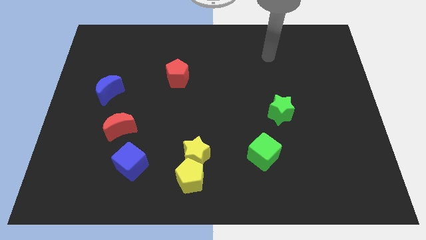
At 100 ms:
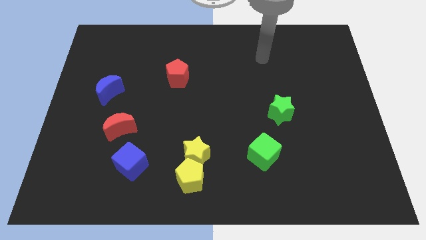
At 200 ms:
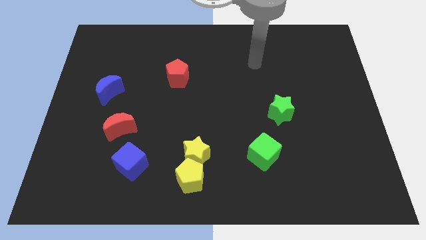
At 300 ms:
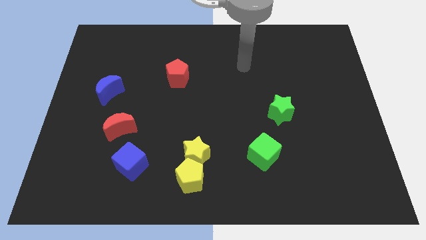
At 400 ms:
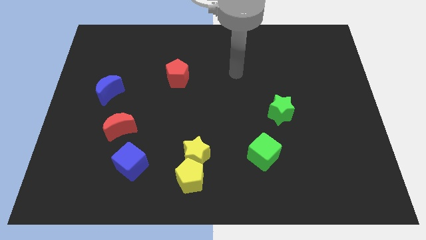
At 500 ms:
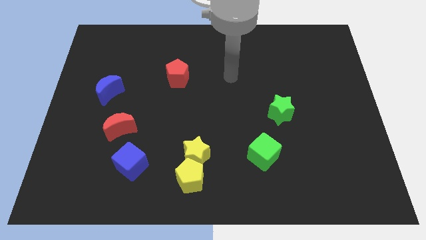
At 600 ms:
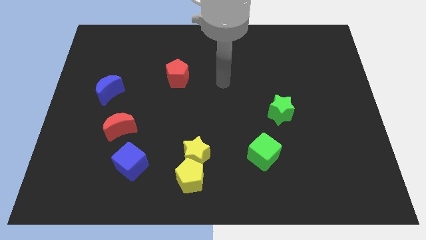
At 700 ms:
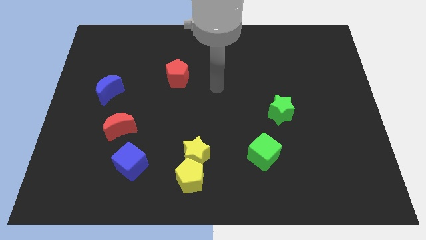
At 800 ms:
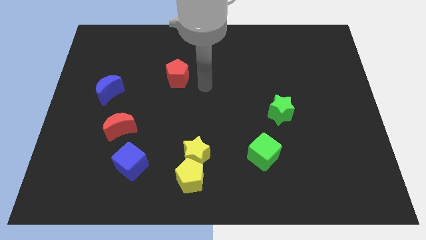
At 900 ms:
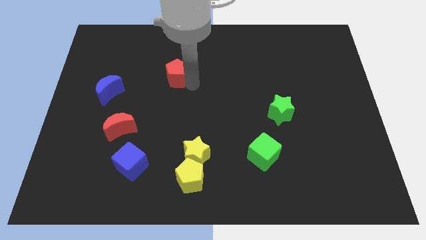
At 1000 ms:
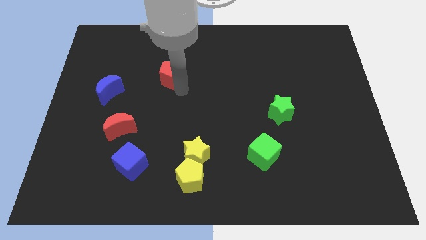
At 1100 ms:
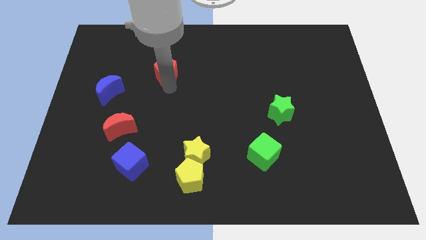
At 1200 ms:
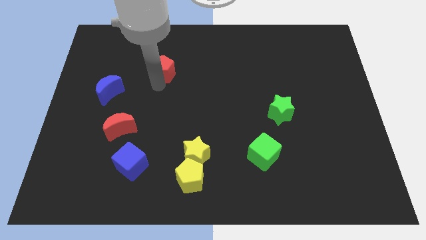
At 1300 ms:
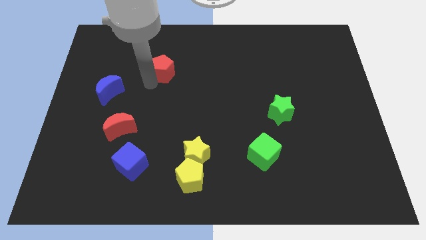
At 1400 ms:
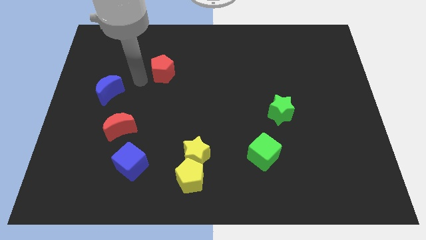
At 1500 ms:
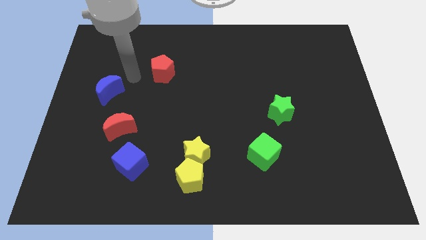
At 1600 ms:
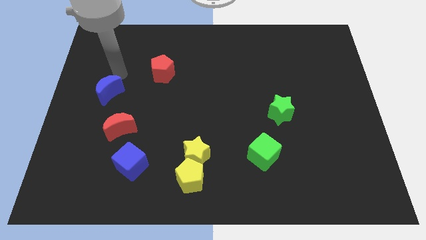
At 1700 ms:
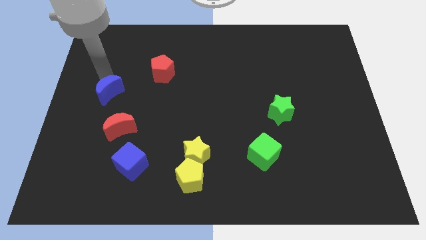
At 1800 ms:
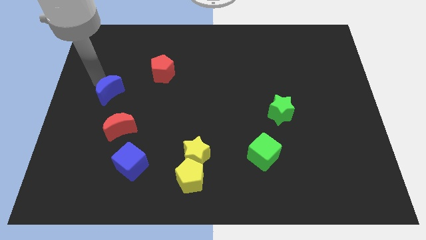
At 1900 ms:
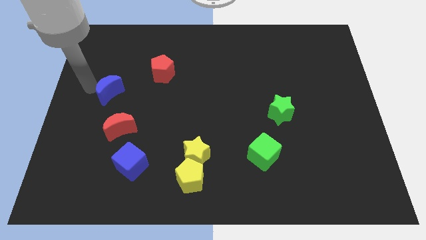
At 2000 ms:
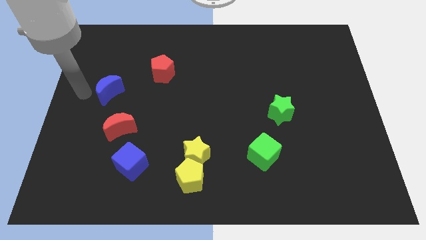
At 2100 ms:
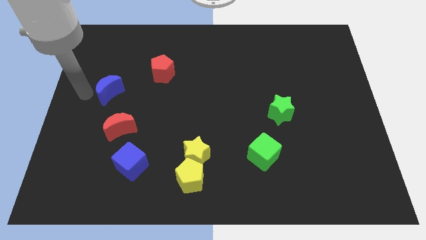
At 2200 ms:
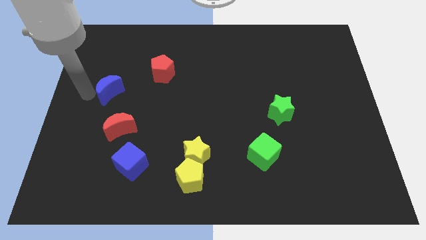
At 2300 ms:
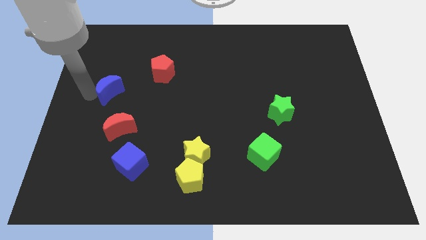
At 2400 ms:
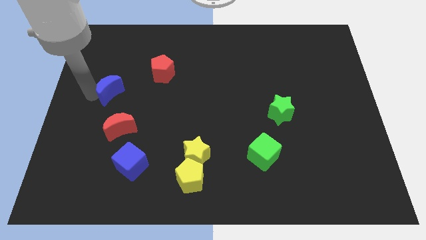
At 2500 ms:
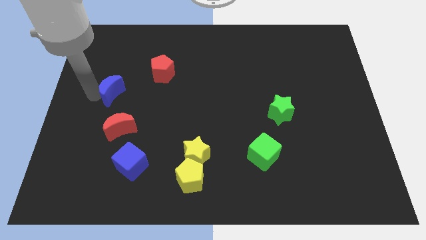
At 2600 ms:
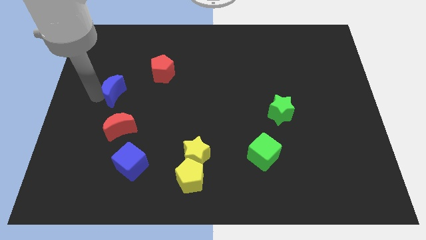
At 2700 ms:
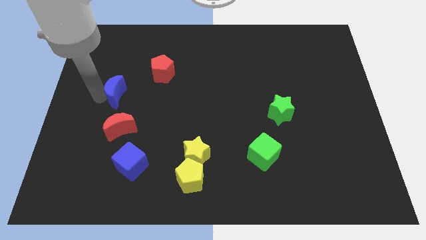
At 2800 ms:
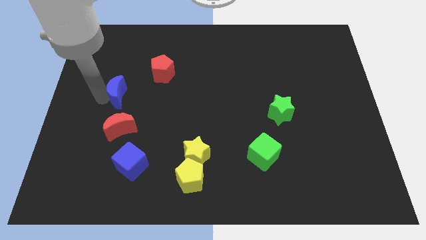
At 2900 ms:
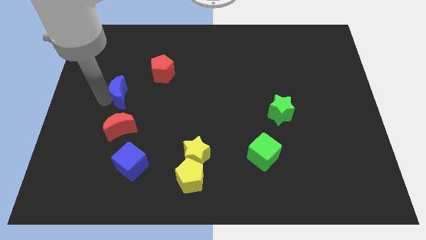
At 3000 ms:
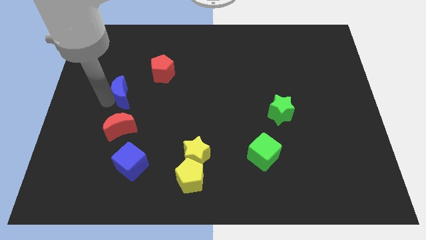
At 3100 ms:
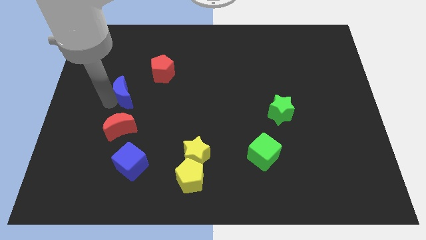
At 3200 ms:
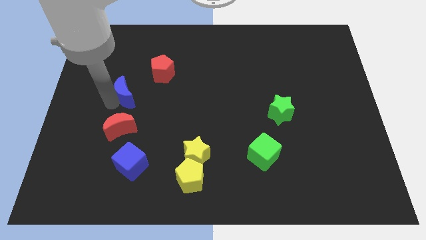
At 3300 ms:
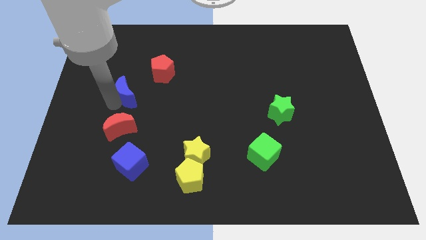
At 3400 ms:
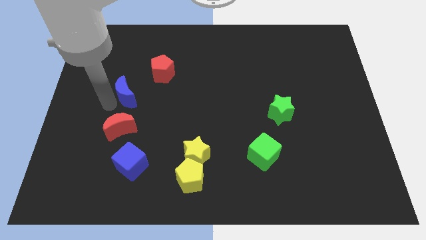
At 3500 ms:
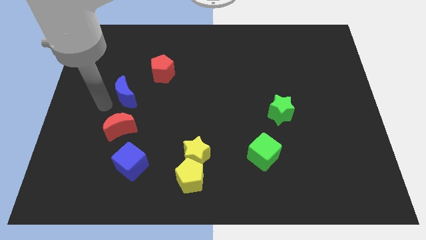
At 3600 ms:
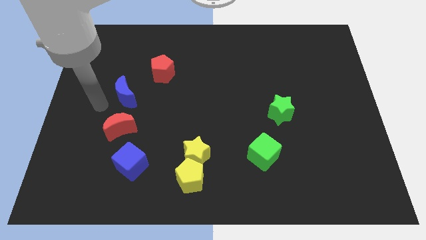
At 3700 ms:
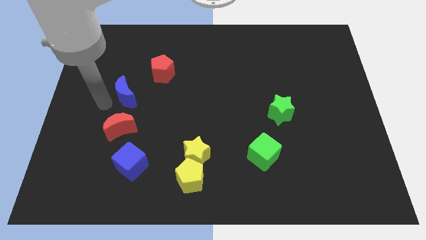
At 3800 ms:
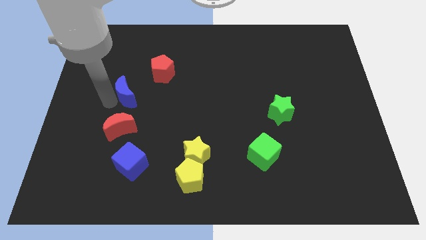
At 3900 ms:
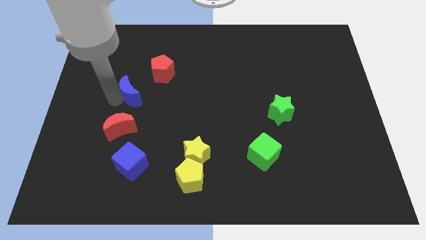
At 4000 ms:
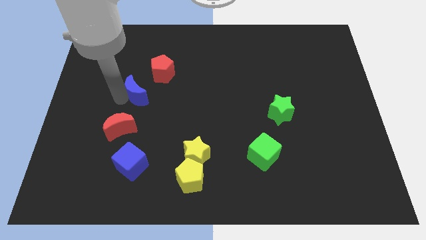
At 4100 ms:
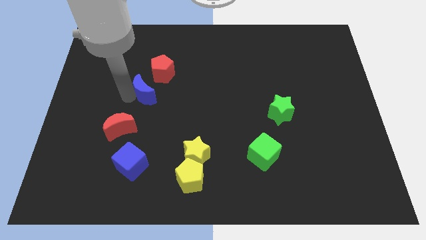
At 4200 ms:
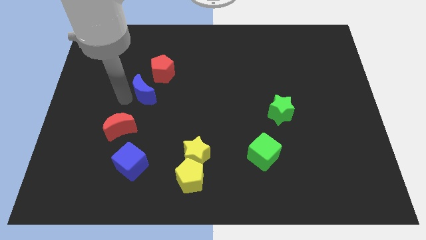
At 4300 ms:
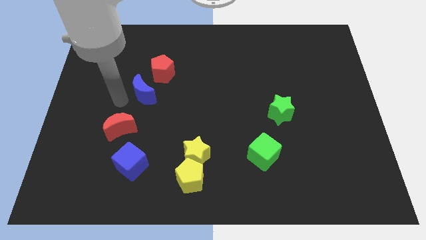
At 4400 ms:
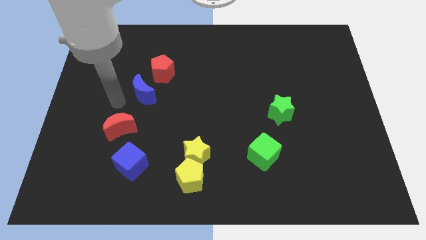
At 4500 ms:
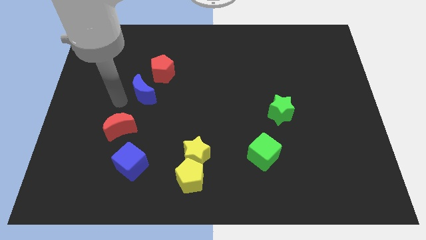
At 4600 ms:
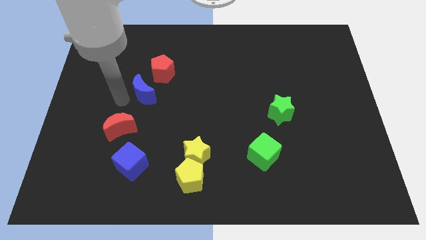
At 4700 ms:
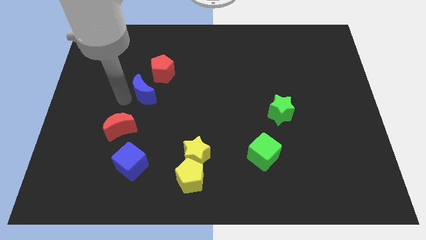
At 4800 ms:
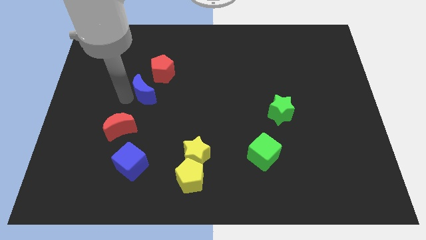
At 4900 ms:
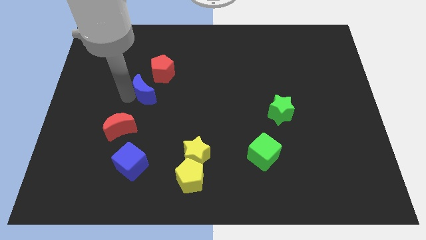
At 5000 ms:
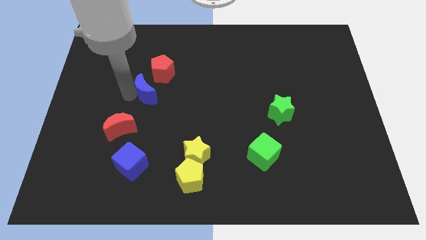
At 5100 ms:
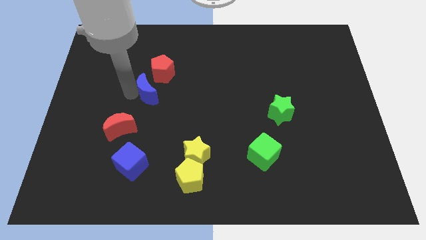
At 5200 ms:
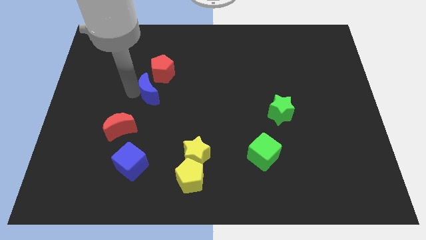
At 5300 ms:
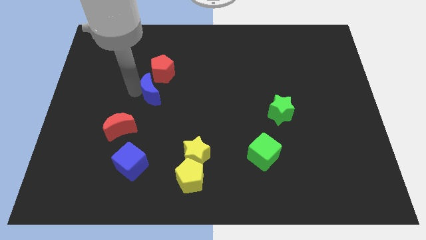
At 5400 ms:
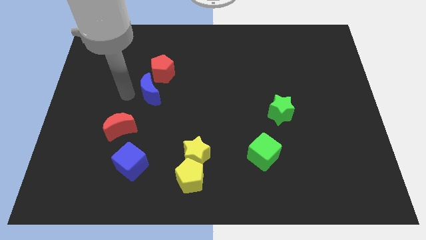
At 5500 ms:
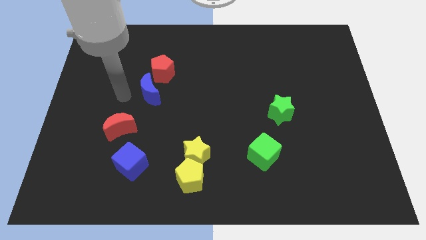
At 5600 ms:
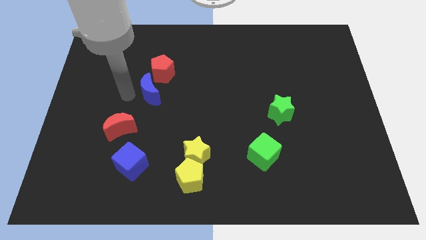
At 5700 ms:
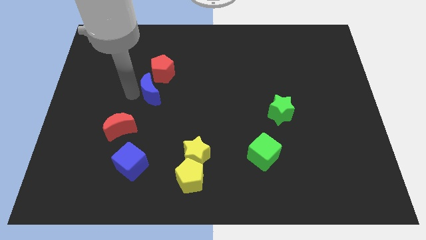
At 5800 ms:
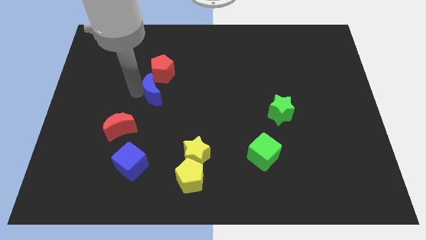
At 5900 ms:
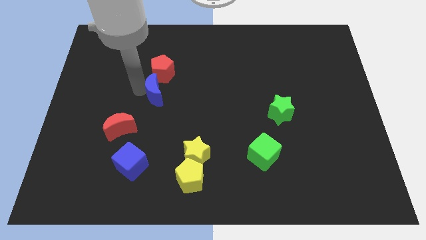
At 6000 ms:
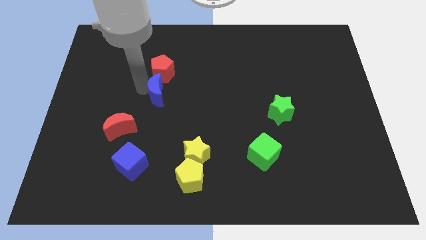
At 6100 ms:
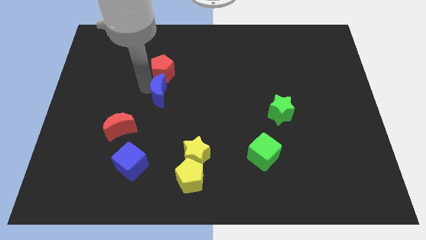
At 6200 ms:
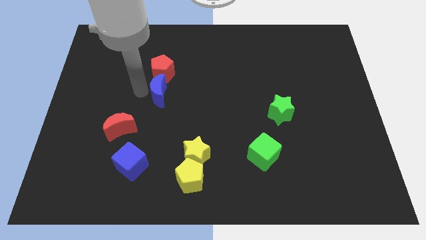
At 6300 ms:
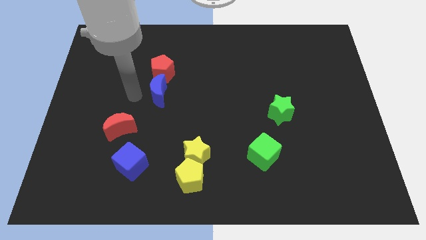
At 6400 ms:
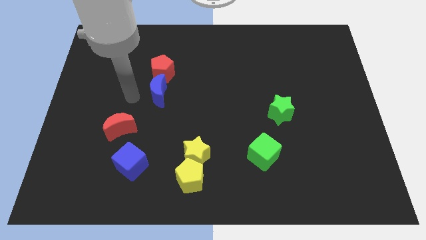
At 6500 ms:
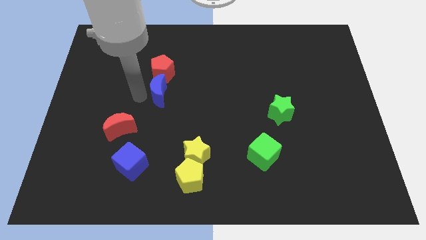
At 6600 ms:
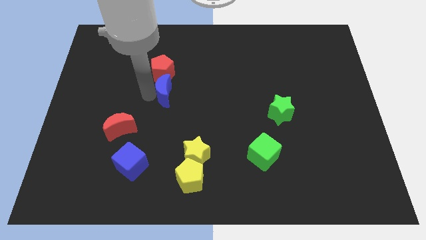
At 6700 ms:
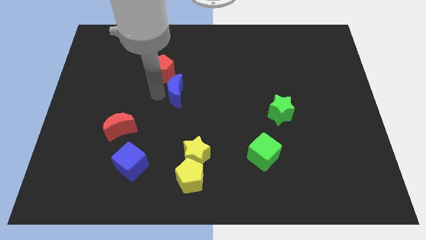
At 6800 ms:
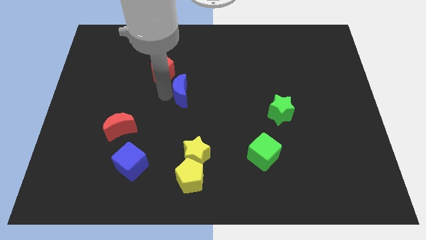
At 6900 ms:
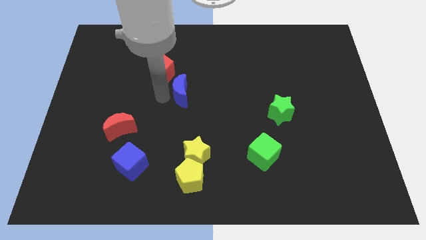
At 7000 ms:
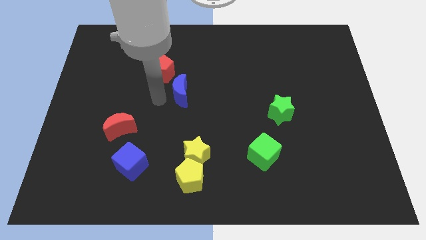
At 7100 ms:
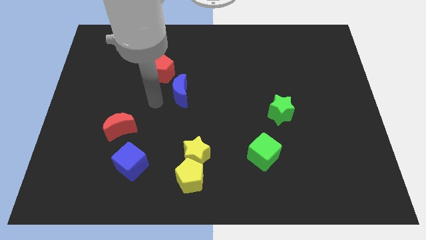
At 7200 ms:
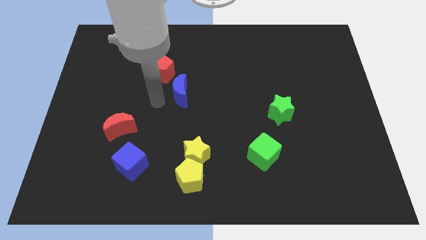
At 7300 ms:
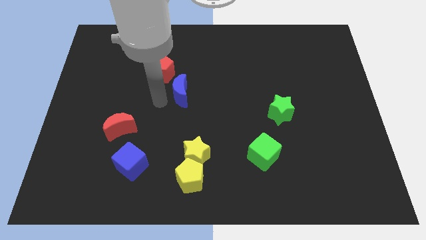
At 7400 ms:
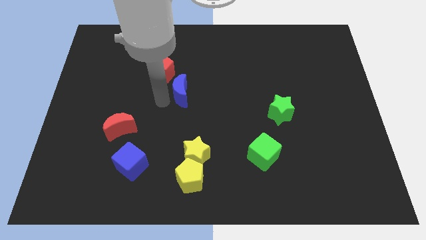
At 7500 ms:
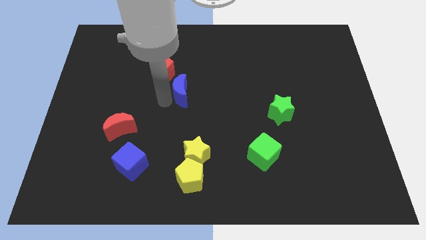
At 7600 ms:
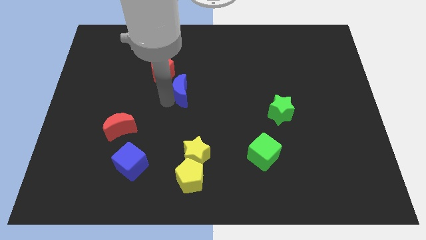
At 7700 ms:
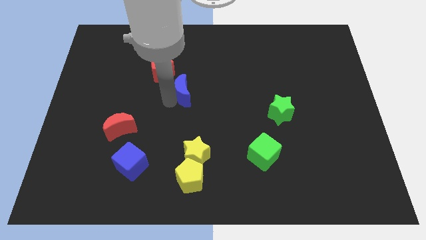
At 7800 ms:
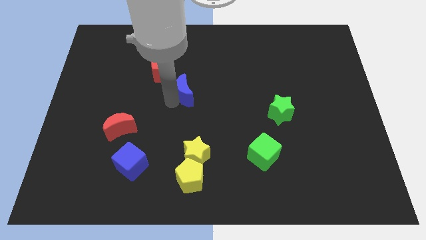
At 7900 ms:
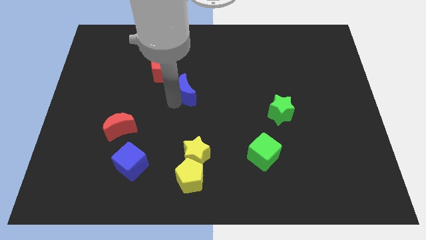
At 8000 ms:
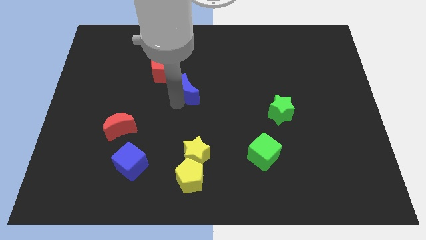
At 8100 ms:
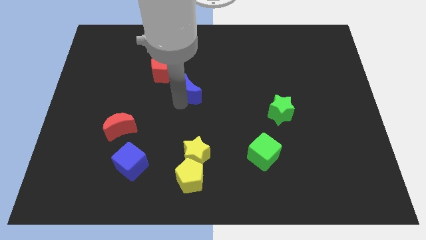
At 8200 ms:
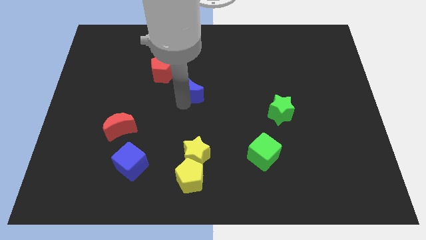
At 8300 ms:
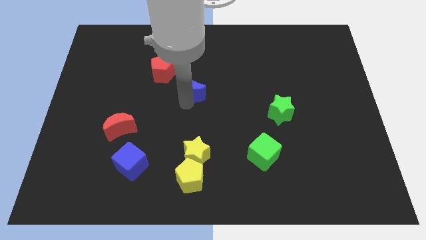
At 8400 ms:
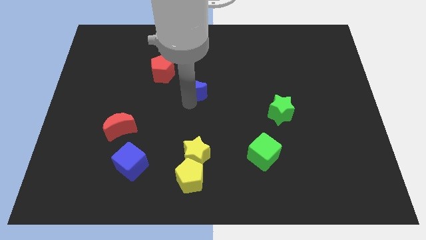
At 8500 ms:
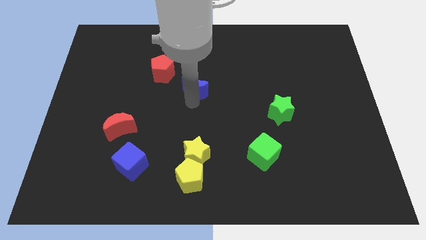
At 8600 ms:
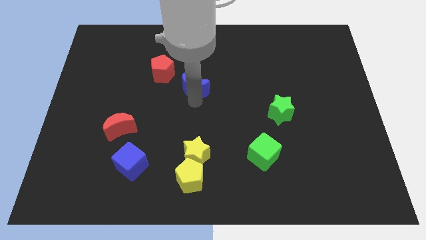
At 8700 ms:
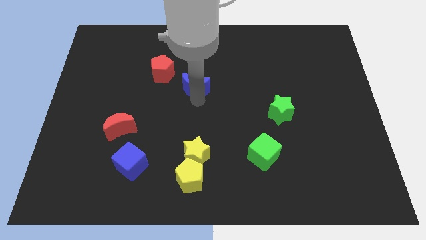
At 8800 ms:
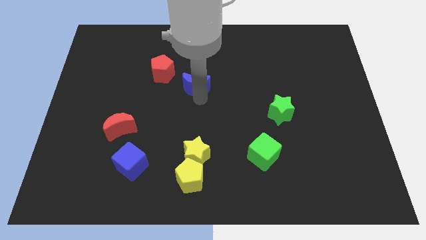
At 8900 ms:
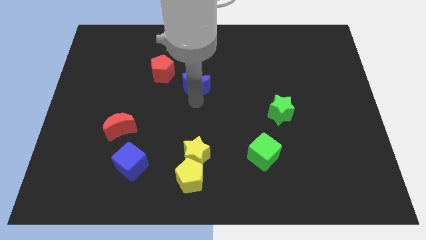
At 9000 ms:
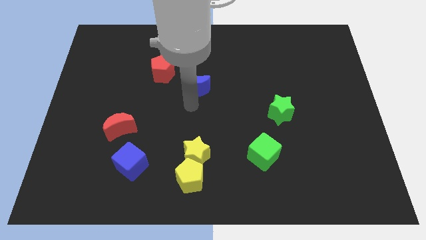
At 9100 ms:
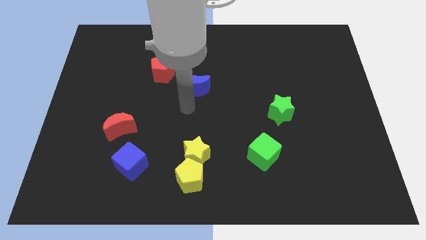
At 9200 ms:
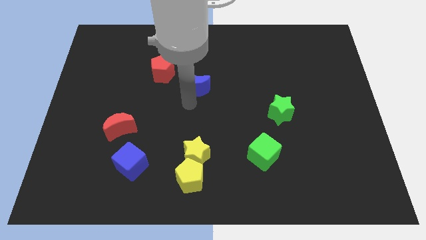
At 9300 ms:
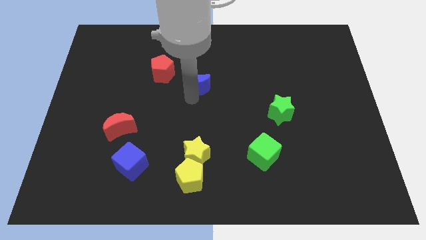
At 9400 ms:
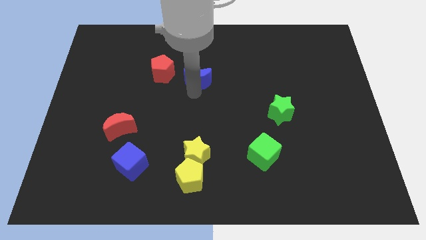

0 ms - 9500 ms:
push the blue moon to the right side of the red pentagon
